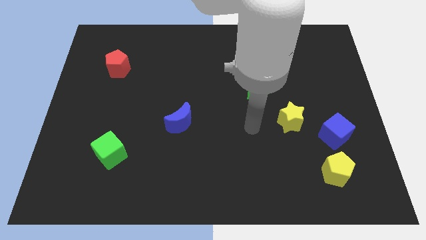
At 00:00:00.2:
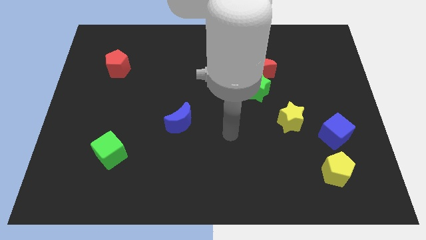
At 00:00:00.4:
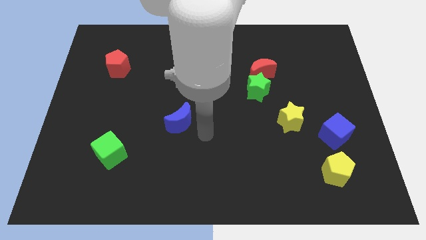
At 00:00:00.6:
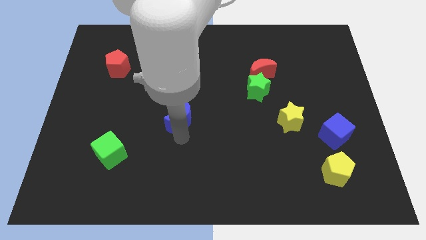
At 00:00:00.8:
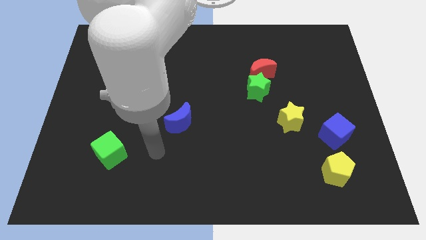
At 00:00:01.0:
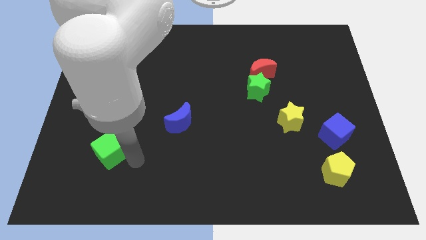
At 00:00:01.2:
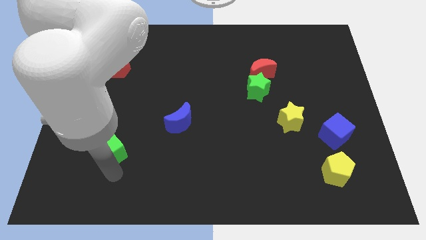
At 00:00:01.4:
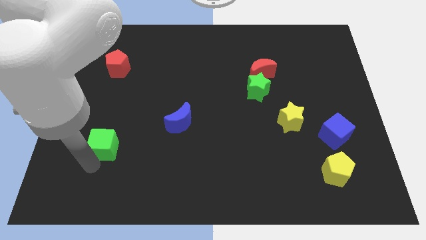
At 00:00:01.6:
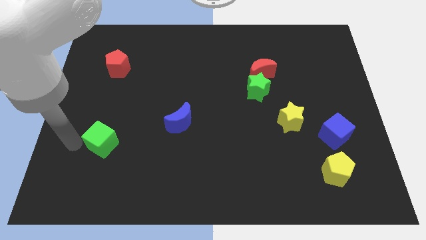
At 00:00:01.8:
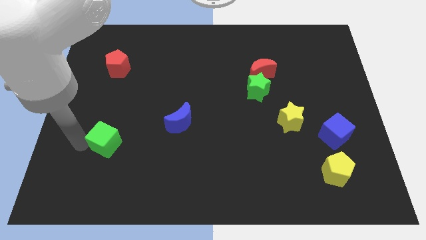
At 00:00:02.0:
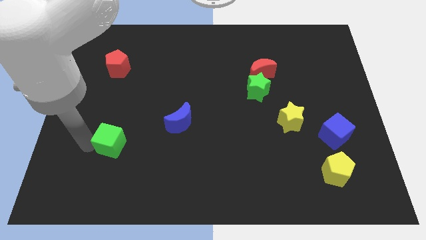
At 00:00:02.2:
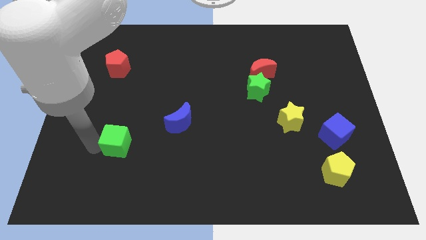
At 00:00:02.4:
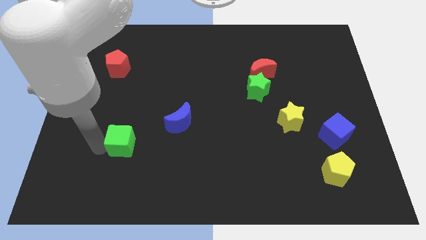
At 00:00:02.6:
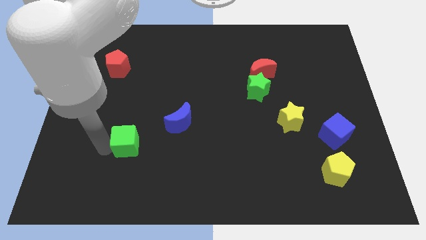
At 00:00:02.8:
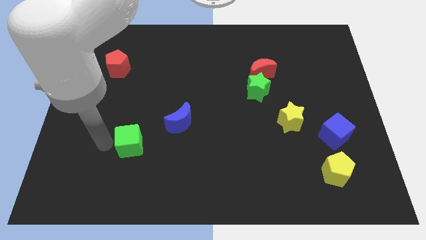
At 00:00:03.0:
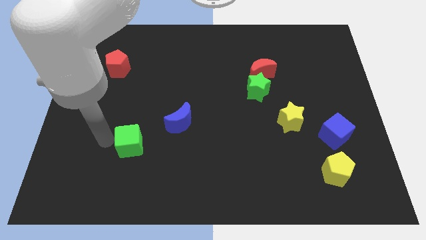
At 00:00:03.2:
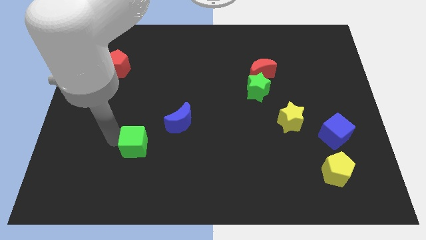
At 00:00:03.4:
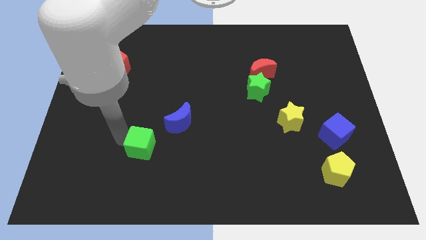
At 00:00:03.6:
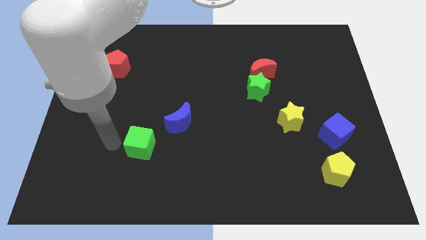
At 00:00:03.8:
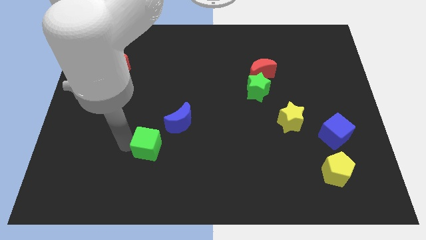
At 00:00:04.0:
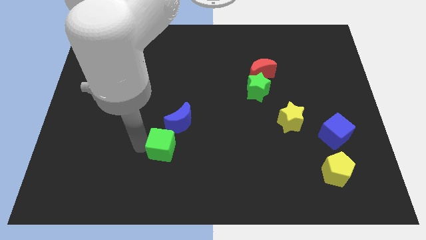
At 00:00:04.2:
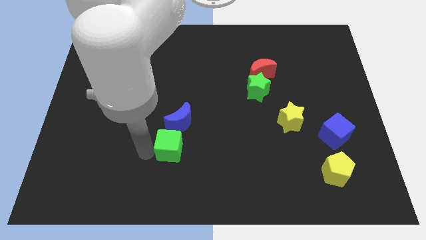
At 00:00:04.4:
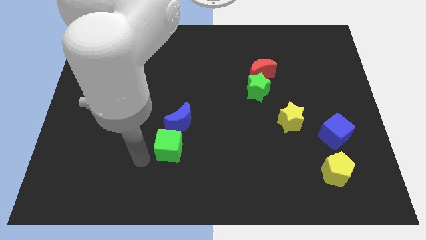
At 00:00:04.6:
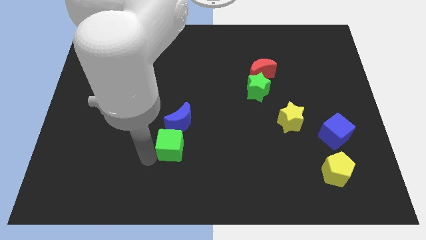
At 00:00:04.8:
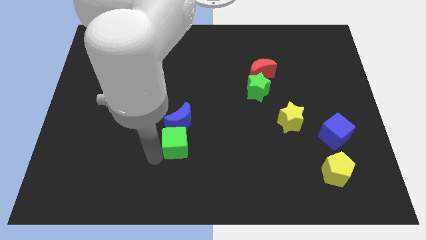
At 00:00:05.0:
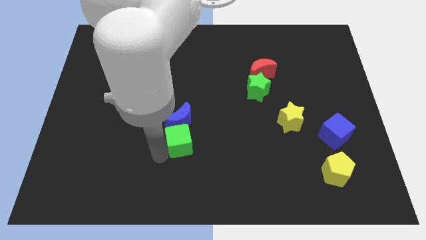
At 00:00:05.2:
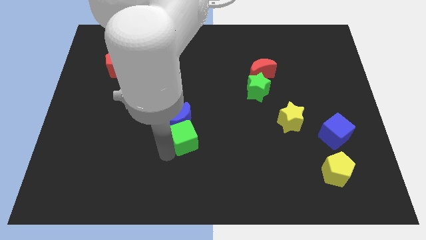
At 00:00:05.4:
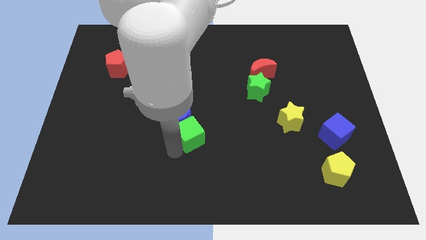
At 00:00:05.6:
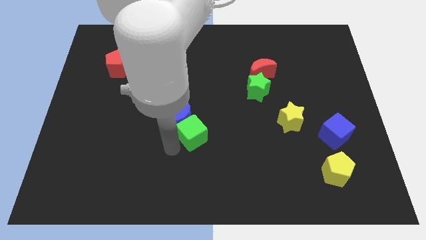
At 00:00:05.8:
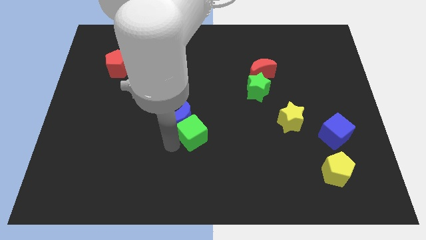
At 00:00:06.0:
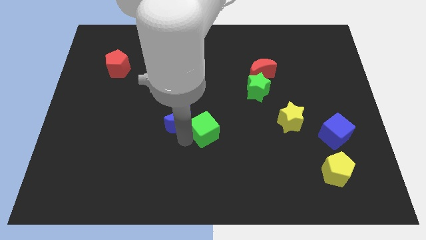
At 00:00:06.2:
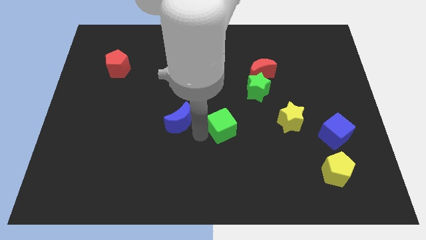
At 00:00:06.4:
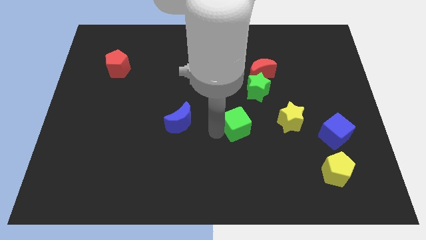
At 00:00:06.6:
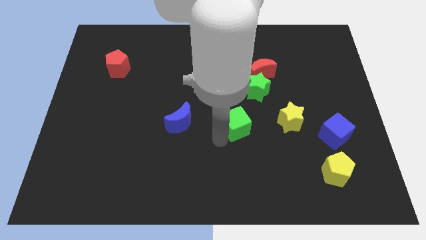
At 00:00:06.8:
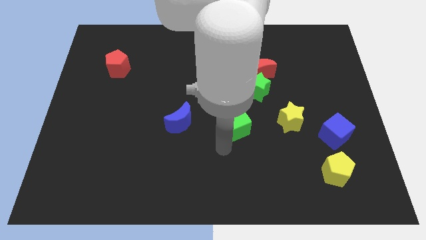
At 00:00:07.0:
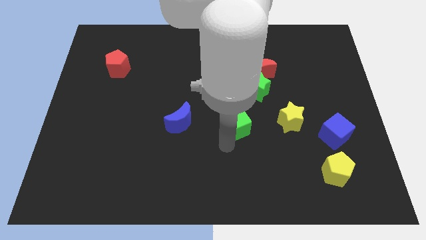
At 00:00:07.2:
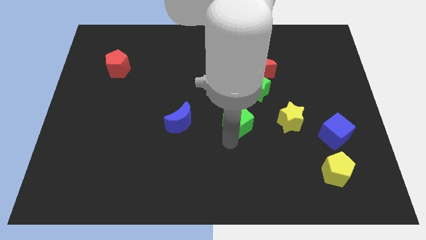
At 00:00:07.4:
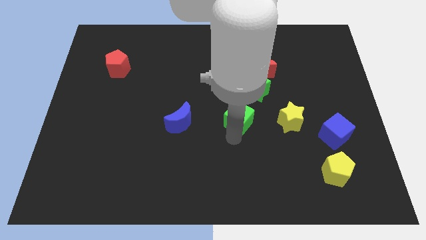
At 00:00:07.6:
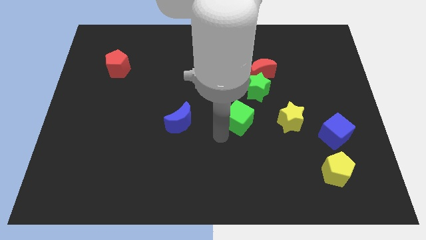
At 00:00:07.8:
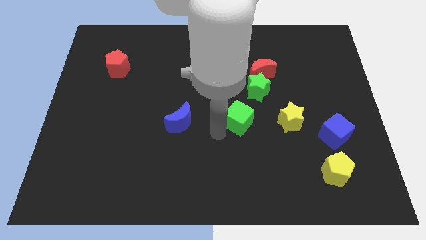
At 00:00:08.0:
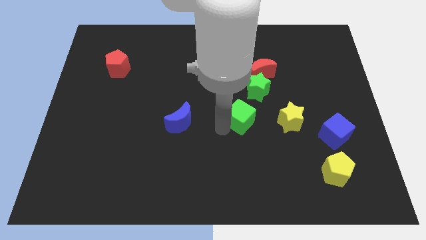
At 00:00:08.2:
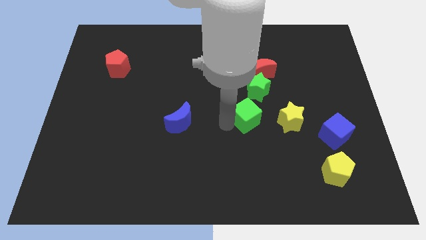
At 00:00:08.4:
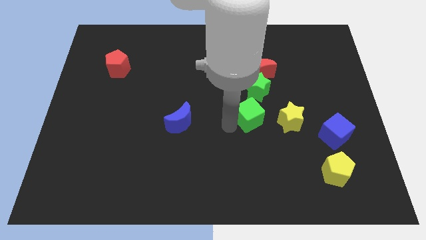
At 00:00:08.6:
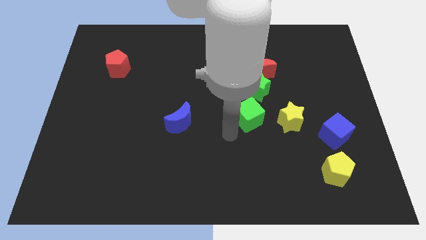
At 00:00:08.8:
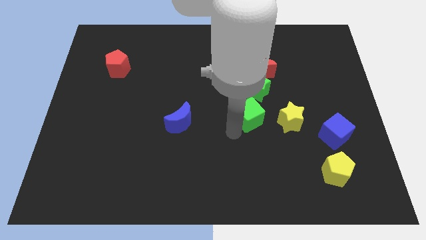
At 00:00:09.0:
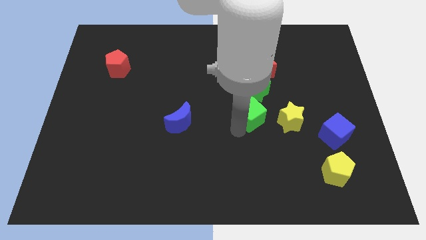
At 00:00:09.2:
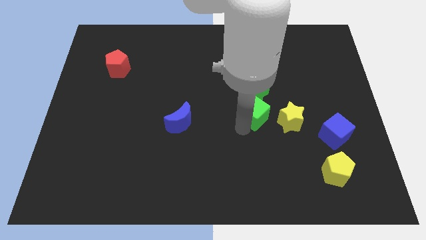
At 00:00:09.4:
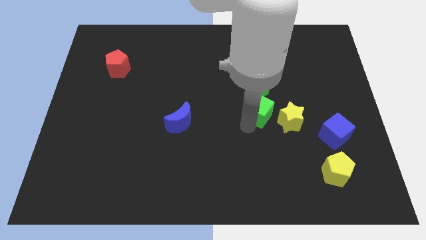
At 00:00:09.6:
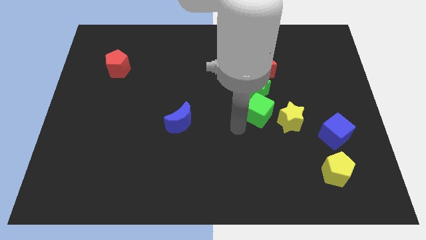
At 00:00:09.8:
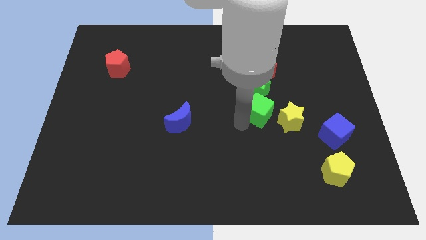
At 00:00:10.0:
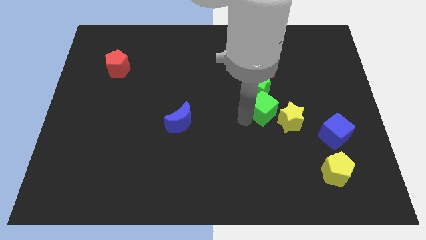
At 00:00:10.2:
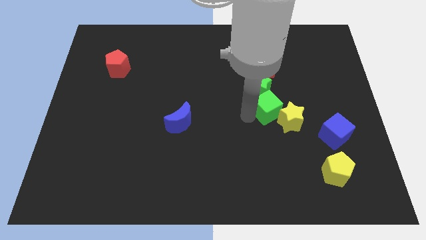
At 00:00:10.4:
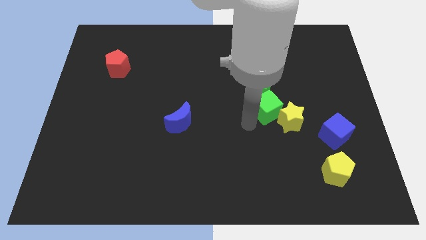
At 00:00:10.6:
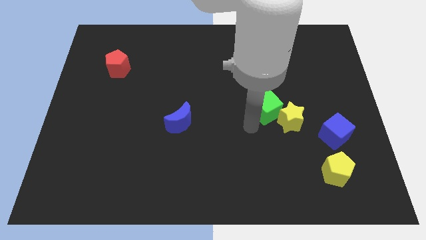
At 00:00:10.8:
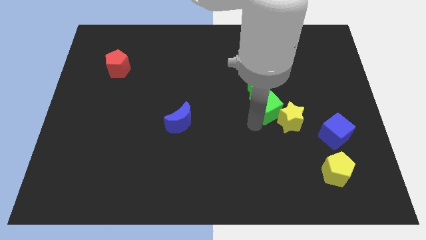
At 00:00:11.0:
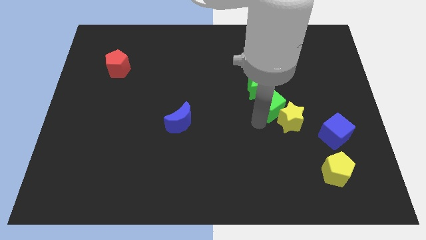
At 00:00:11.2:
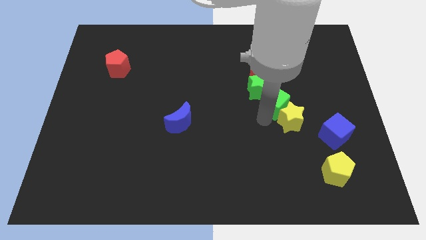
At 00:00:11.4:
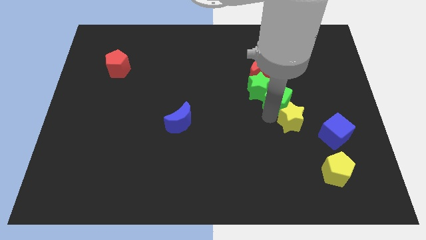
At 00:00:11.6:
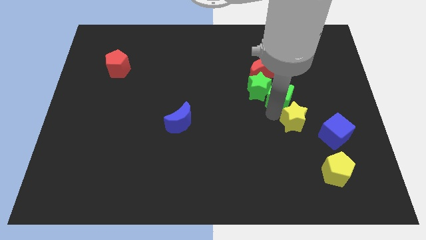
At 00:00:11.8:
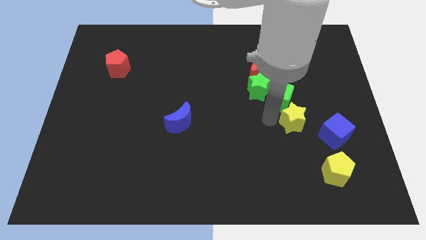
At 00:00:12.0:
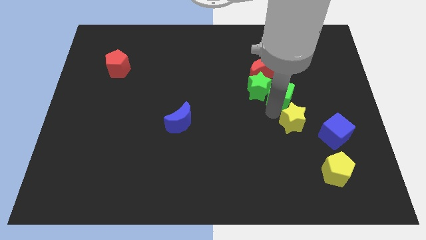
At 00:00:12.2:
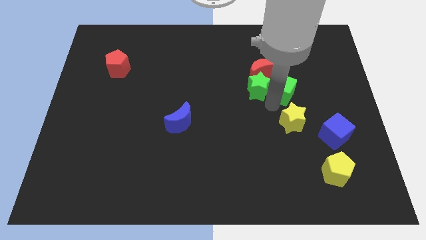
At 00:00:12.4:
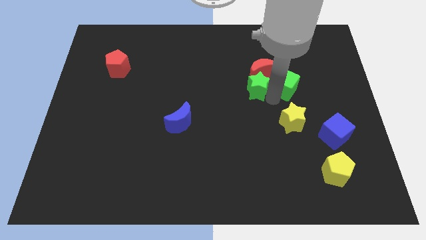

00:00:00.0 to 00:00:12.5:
move the green cube to the right of the red moon

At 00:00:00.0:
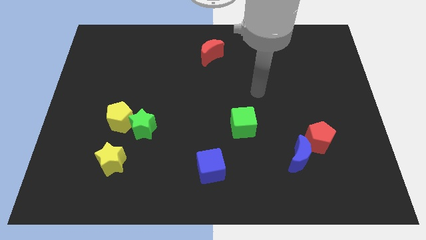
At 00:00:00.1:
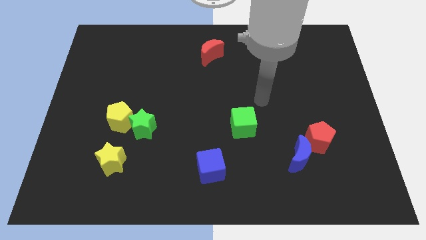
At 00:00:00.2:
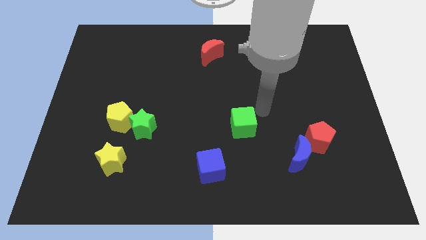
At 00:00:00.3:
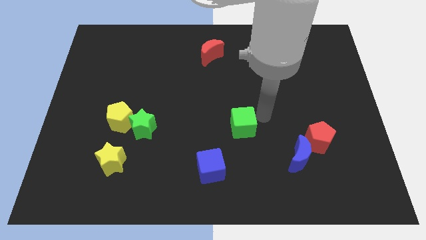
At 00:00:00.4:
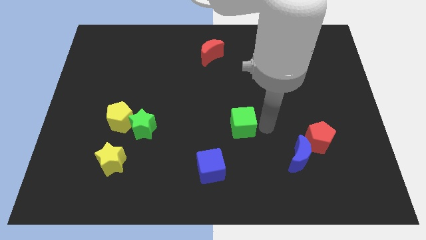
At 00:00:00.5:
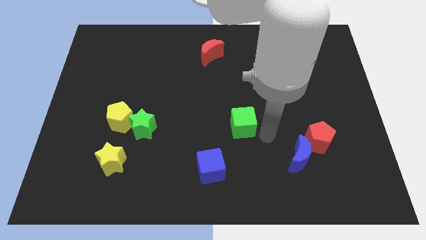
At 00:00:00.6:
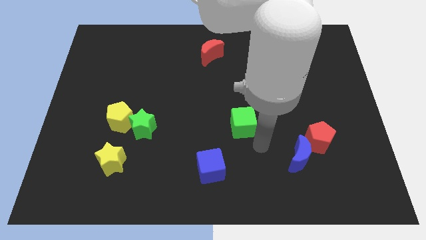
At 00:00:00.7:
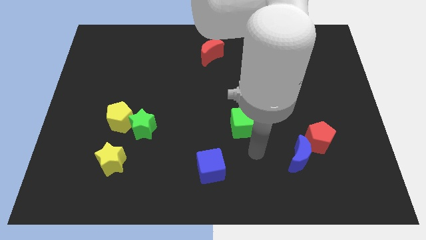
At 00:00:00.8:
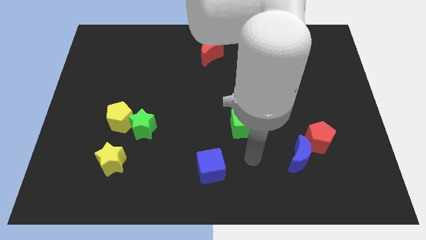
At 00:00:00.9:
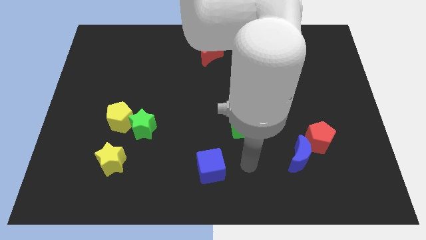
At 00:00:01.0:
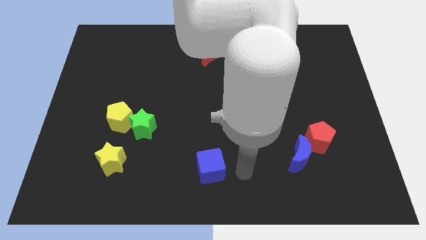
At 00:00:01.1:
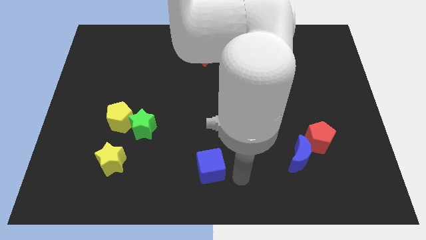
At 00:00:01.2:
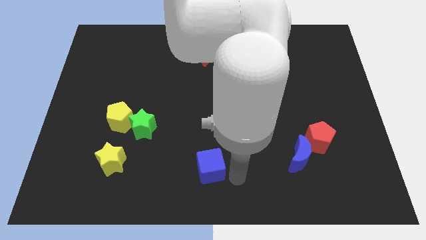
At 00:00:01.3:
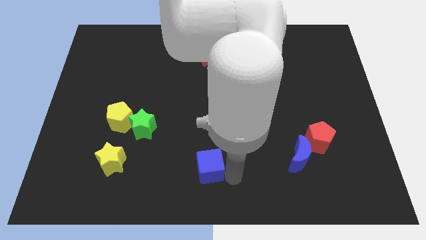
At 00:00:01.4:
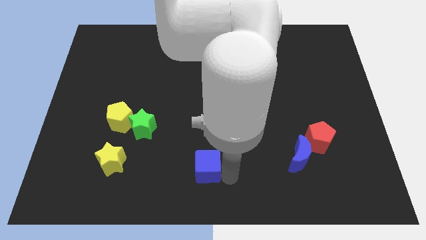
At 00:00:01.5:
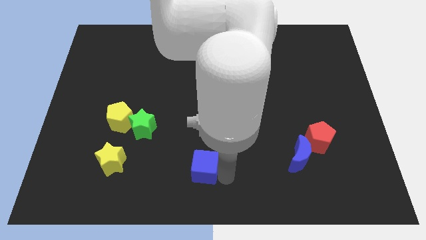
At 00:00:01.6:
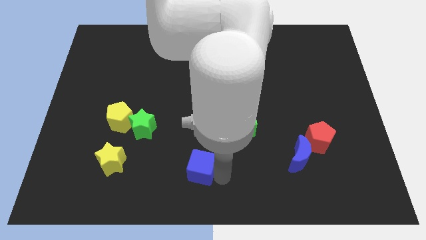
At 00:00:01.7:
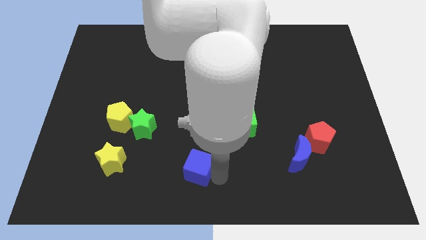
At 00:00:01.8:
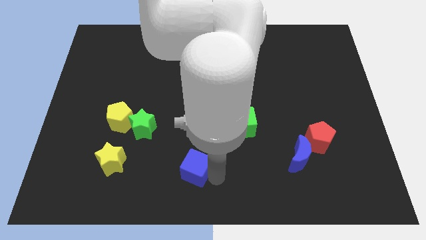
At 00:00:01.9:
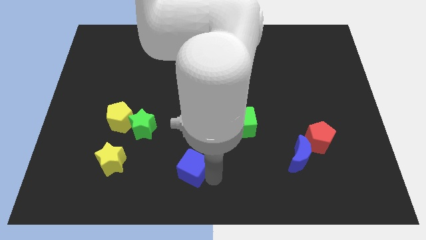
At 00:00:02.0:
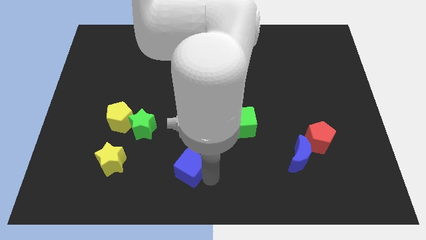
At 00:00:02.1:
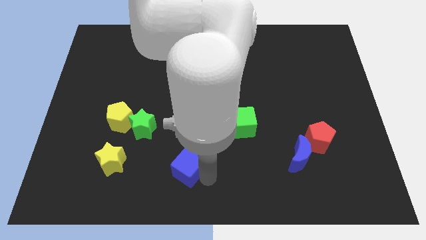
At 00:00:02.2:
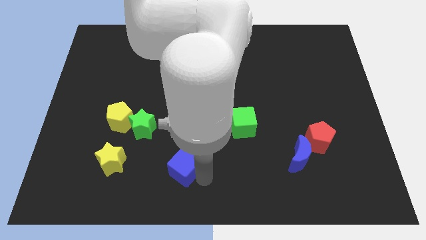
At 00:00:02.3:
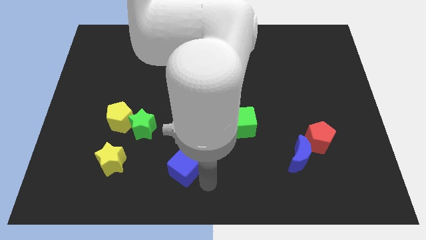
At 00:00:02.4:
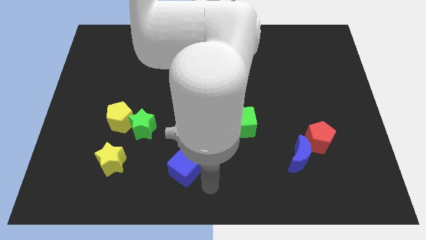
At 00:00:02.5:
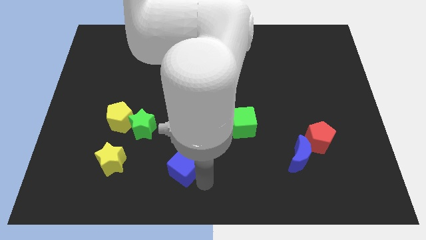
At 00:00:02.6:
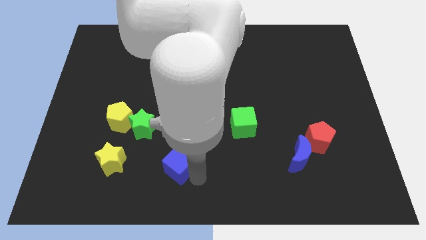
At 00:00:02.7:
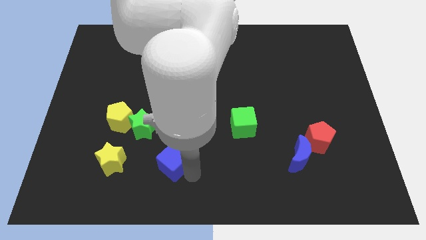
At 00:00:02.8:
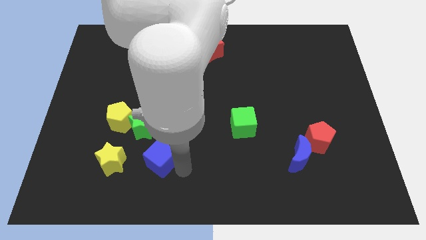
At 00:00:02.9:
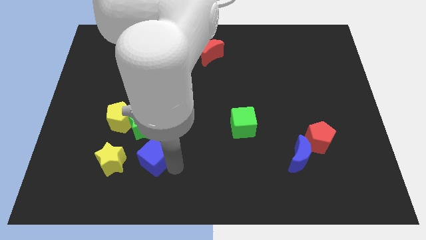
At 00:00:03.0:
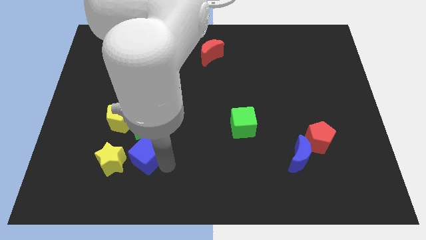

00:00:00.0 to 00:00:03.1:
slide the blue cube to the bottom right of the yellow pentagon
